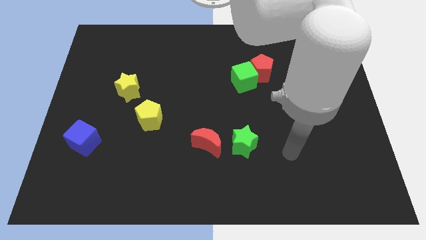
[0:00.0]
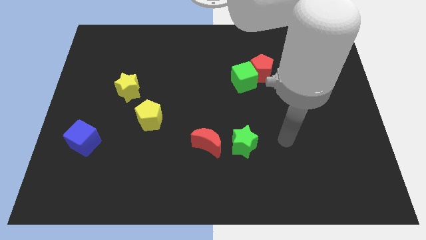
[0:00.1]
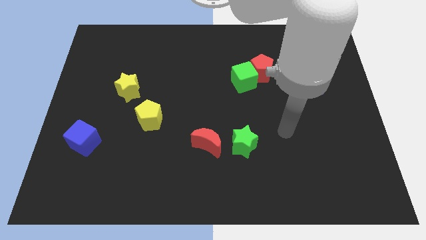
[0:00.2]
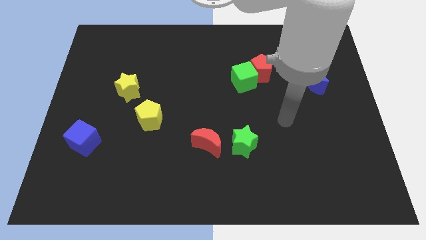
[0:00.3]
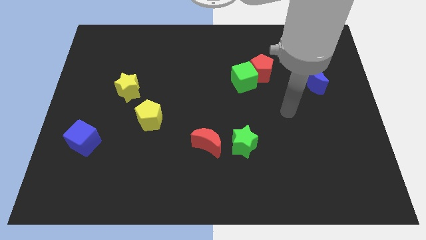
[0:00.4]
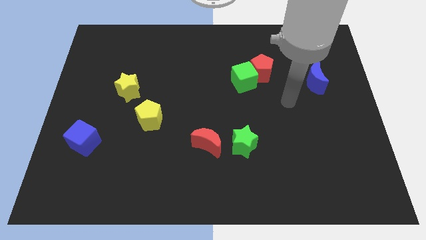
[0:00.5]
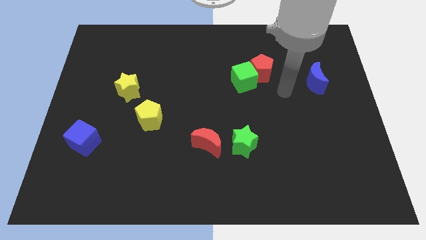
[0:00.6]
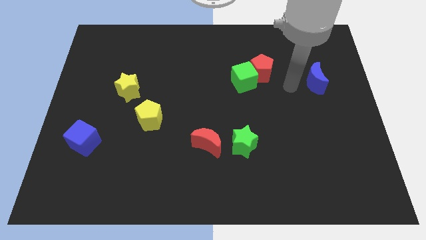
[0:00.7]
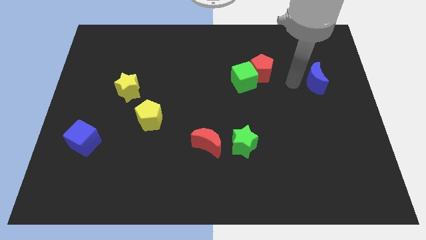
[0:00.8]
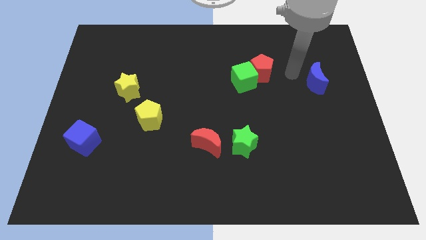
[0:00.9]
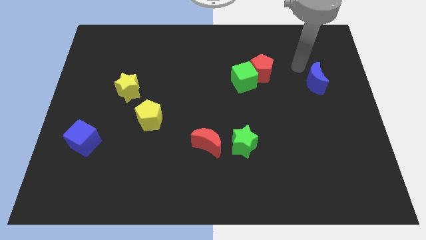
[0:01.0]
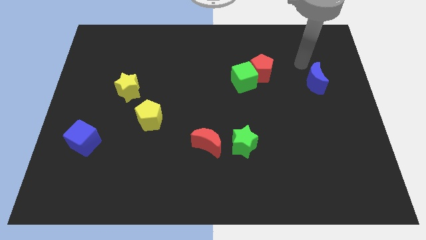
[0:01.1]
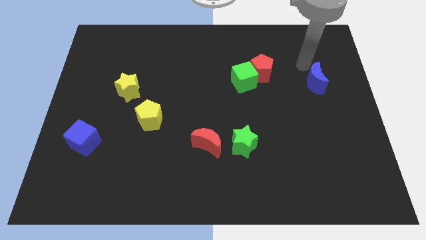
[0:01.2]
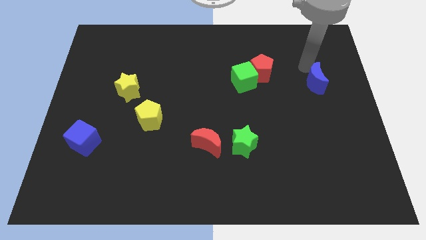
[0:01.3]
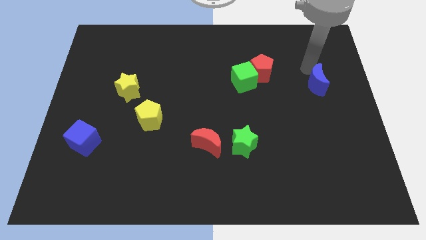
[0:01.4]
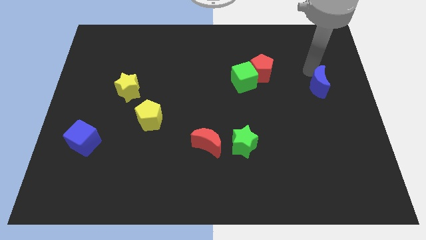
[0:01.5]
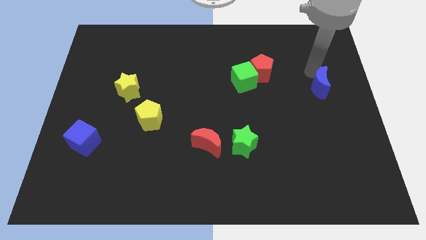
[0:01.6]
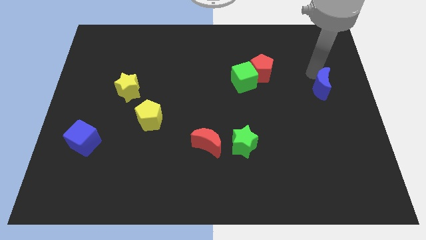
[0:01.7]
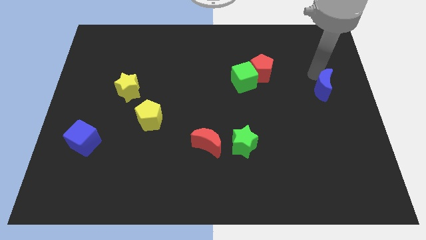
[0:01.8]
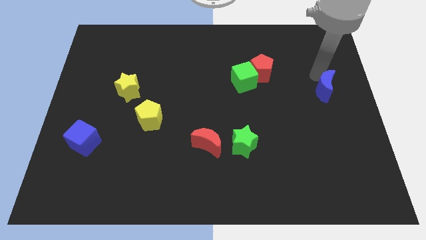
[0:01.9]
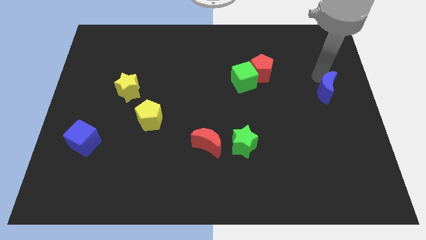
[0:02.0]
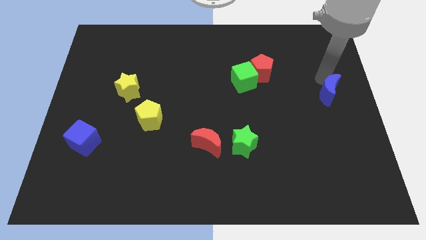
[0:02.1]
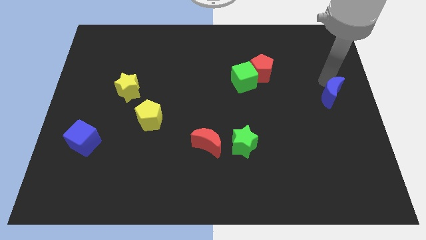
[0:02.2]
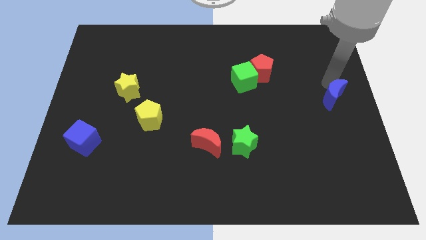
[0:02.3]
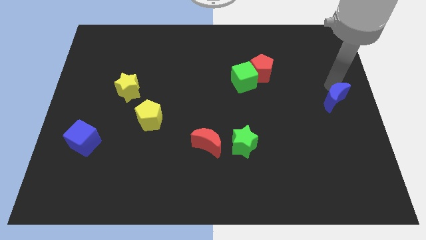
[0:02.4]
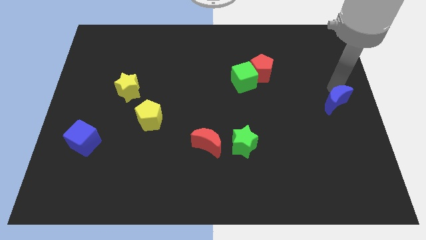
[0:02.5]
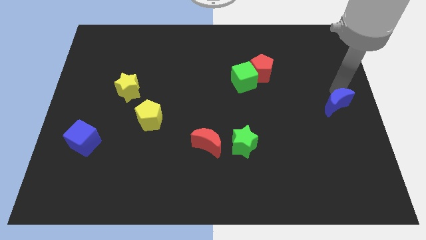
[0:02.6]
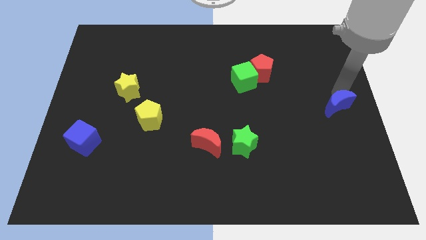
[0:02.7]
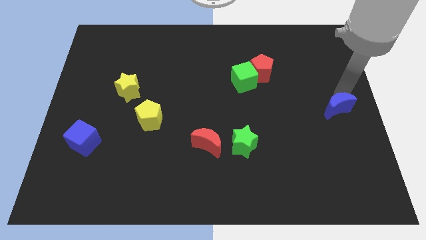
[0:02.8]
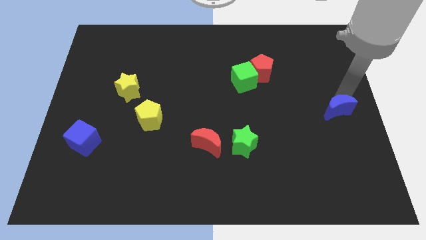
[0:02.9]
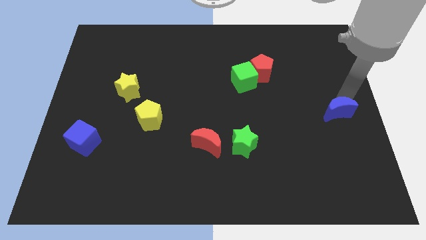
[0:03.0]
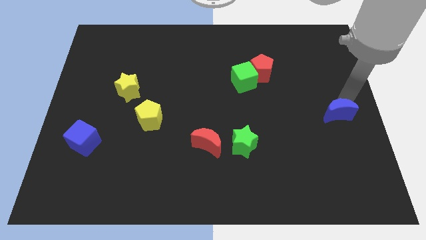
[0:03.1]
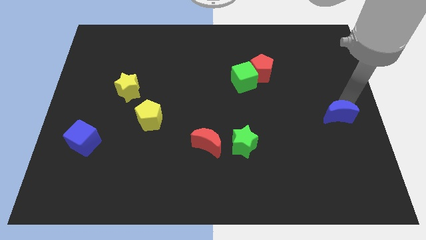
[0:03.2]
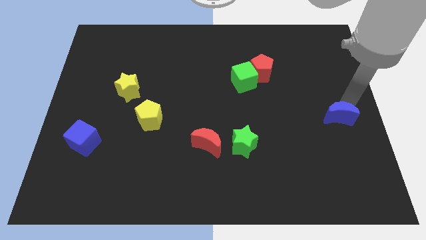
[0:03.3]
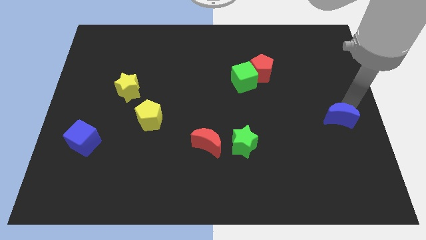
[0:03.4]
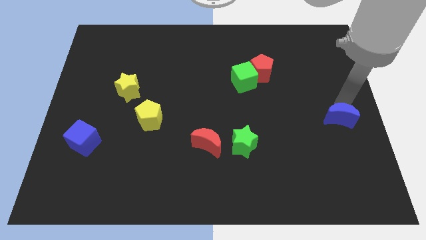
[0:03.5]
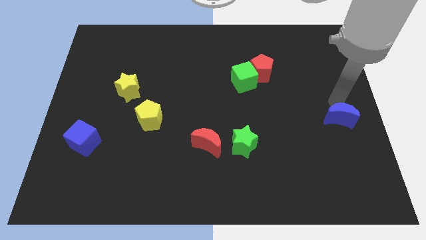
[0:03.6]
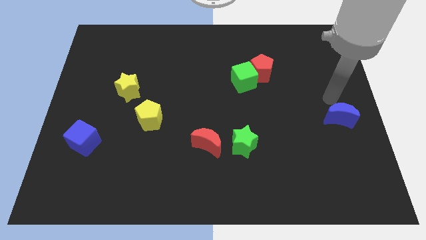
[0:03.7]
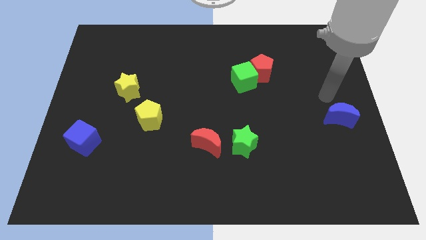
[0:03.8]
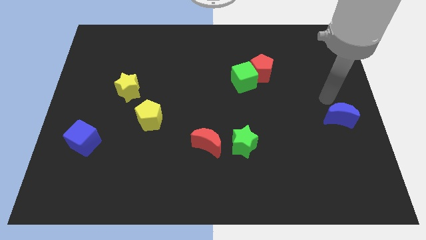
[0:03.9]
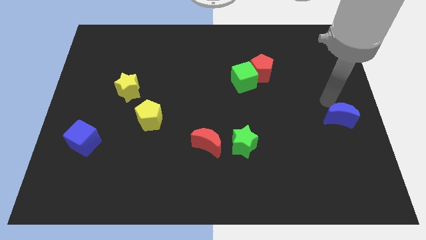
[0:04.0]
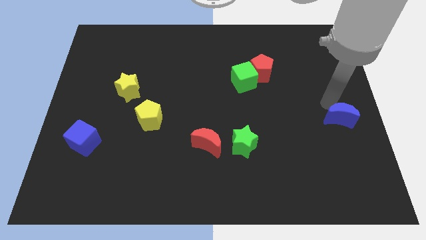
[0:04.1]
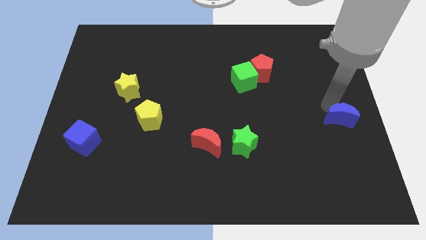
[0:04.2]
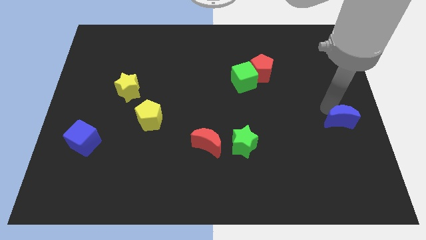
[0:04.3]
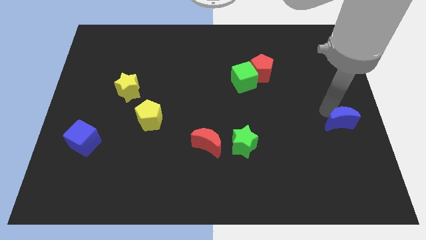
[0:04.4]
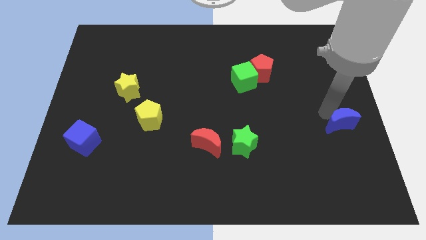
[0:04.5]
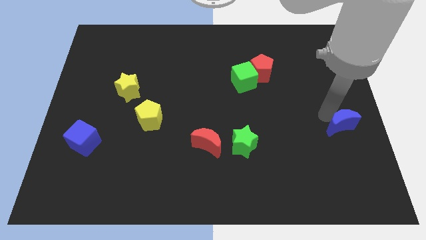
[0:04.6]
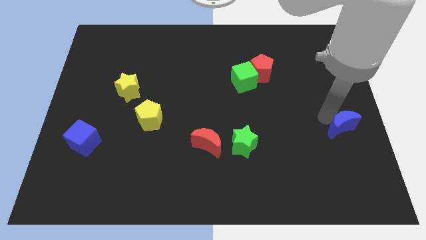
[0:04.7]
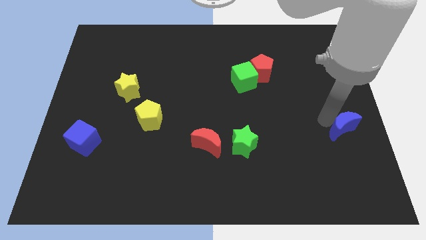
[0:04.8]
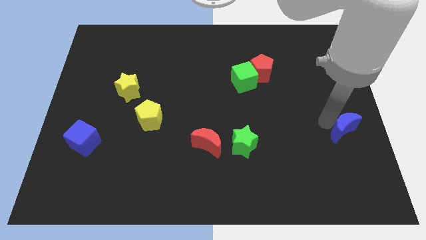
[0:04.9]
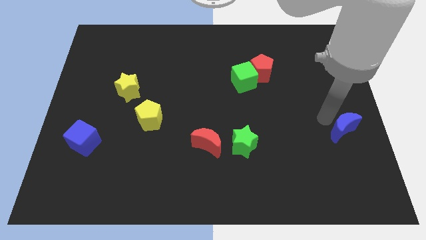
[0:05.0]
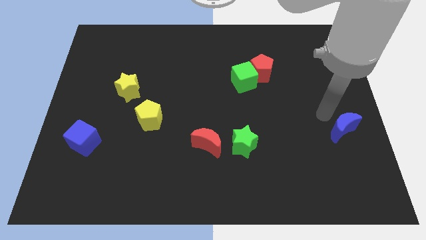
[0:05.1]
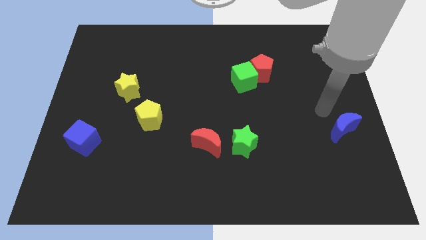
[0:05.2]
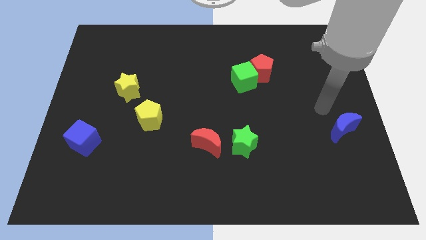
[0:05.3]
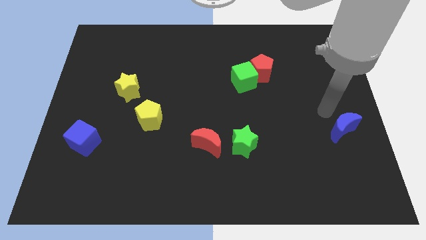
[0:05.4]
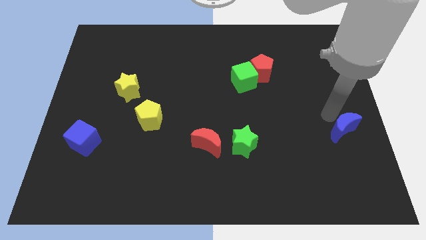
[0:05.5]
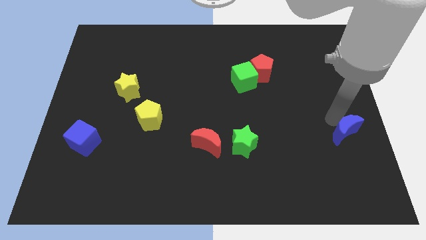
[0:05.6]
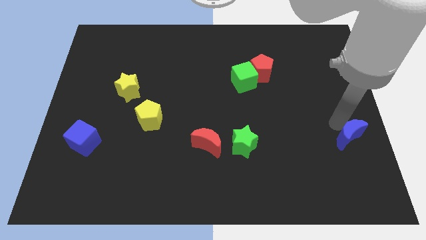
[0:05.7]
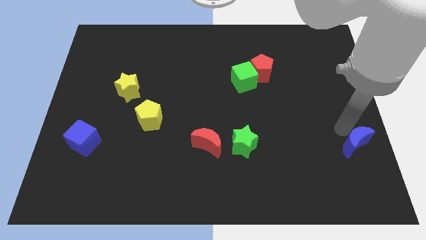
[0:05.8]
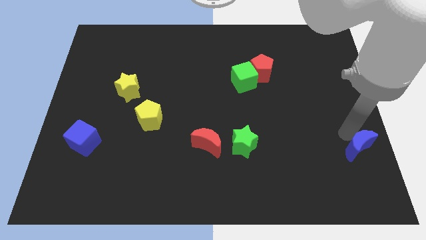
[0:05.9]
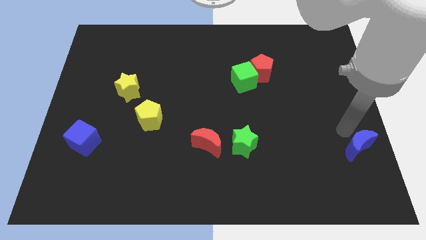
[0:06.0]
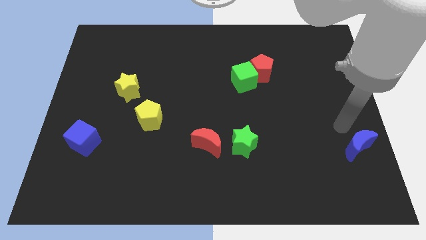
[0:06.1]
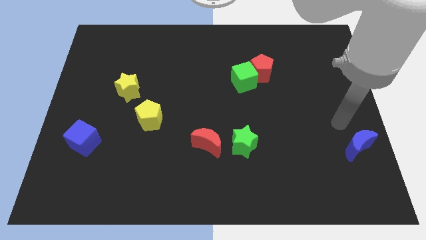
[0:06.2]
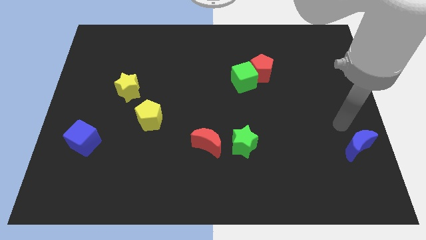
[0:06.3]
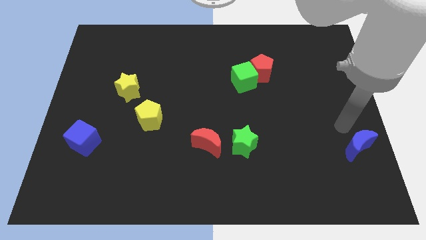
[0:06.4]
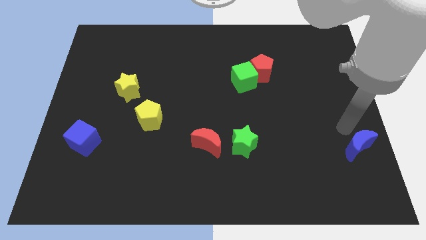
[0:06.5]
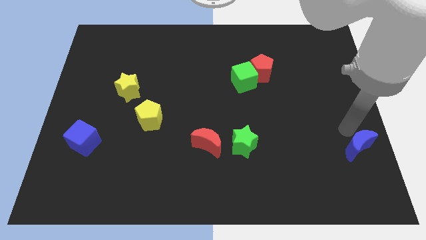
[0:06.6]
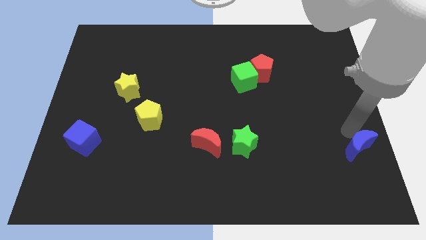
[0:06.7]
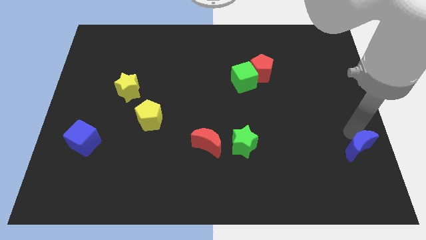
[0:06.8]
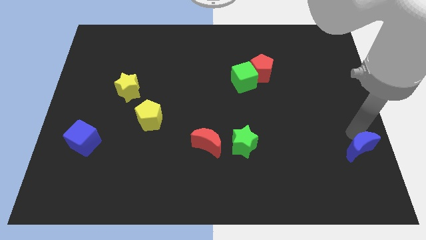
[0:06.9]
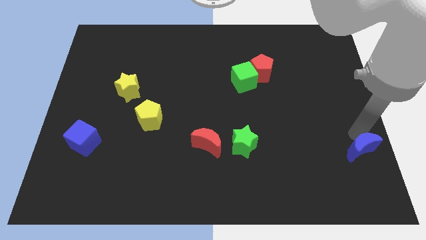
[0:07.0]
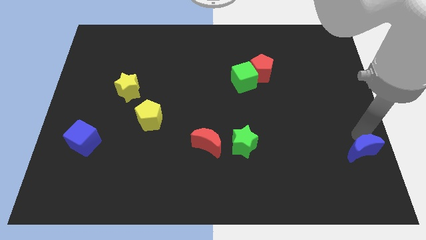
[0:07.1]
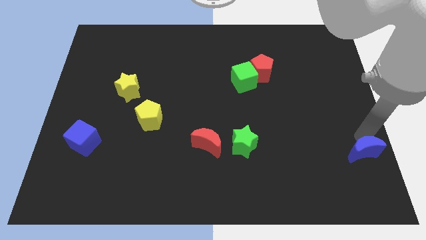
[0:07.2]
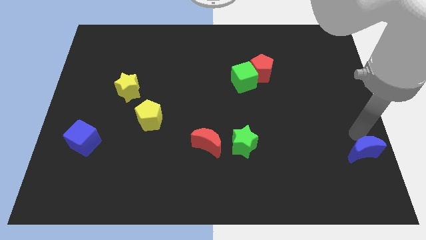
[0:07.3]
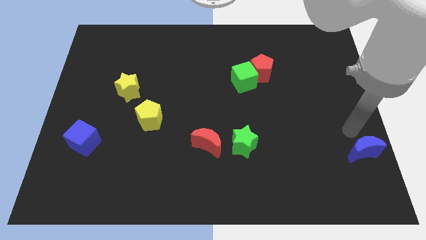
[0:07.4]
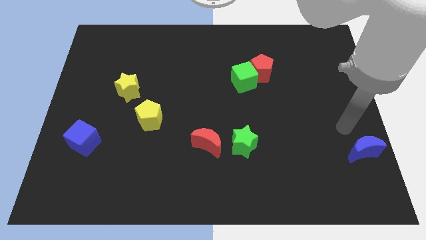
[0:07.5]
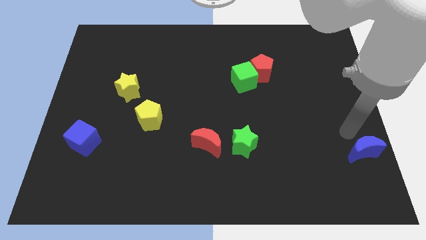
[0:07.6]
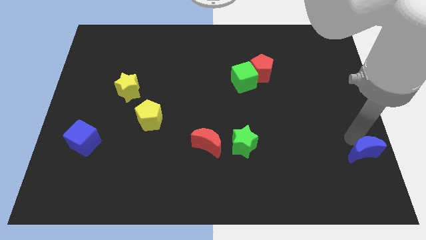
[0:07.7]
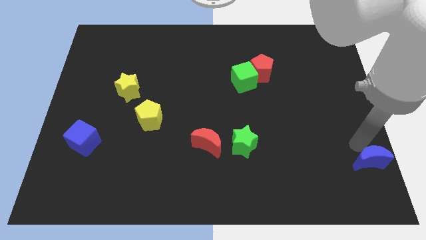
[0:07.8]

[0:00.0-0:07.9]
push the blue moon to the bottom right corner
